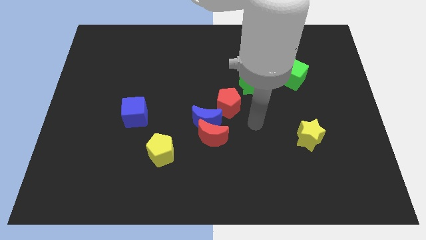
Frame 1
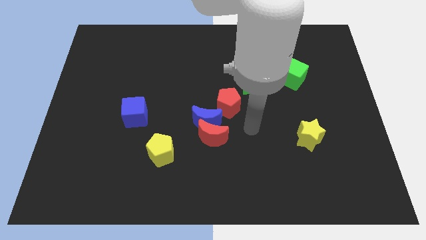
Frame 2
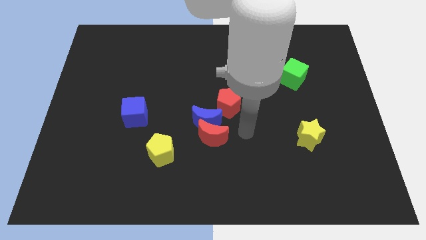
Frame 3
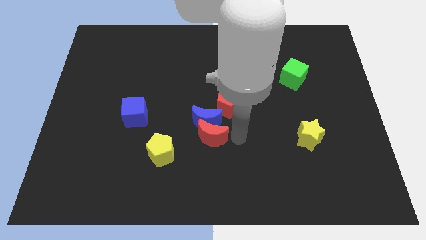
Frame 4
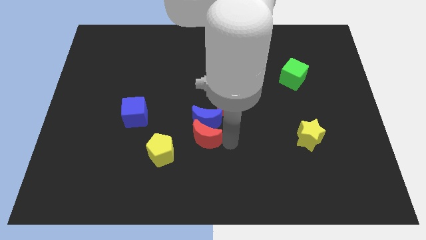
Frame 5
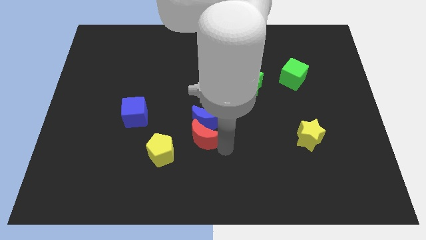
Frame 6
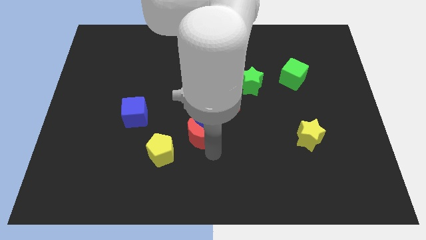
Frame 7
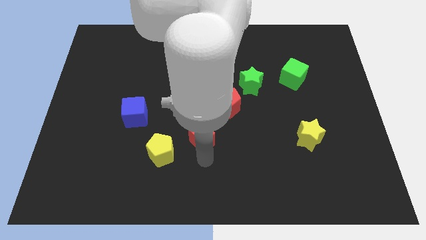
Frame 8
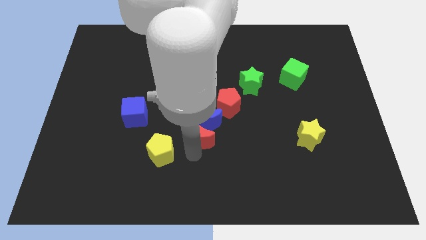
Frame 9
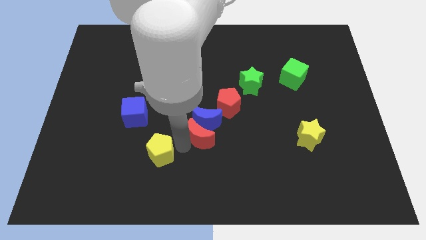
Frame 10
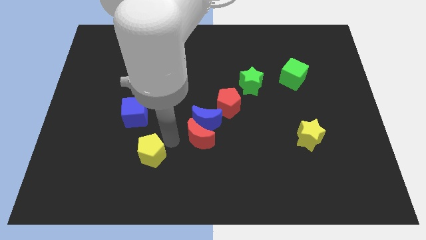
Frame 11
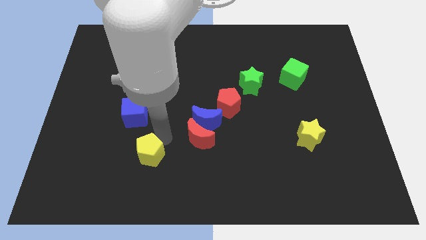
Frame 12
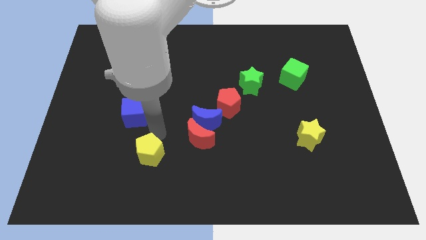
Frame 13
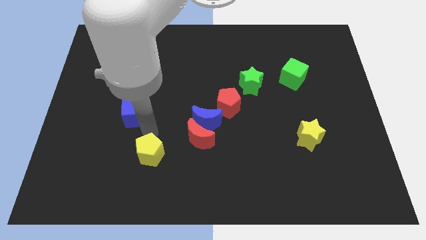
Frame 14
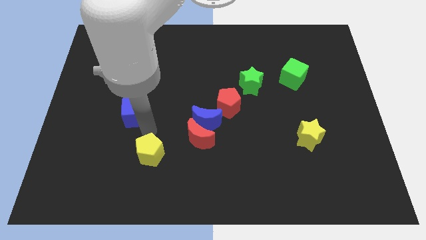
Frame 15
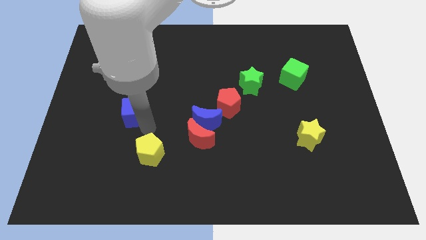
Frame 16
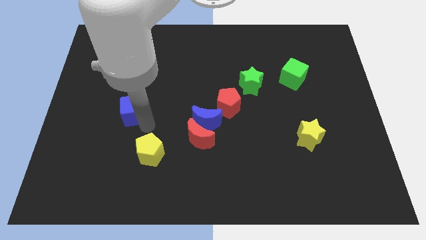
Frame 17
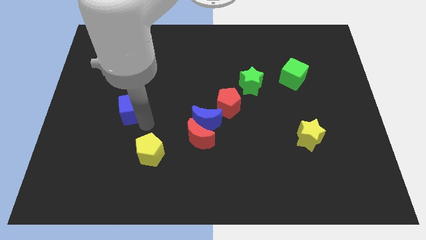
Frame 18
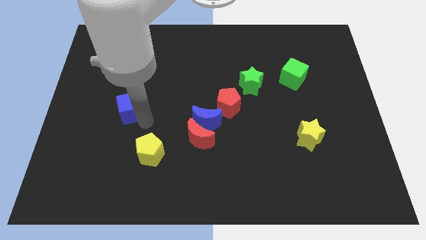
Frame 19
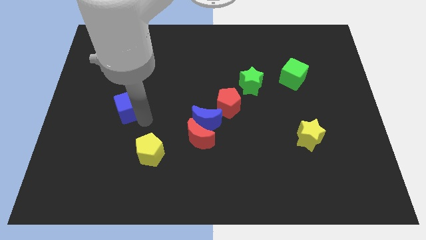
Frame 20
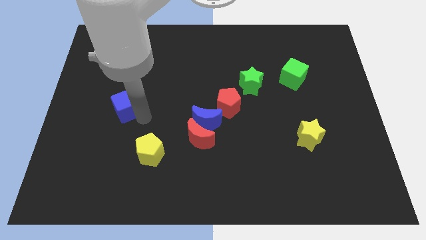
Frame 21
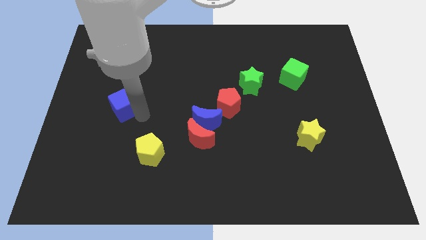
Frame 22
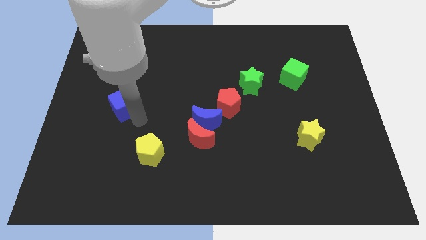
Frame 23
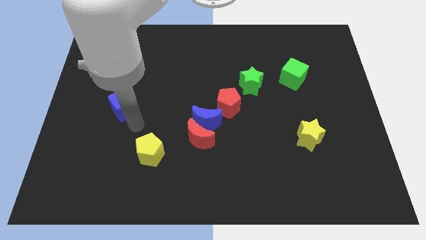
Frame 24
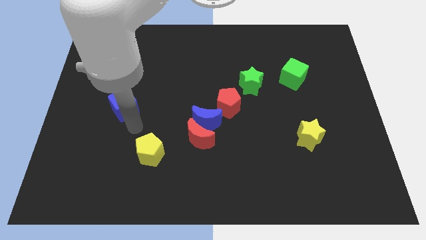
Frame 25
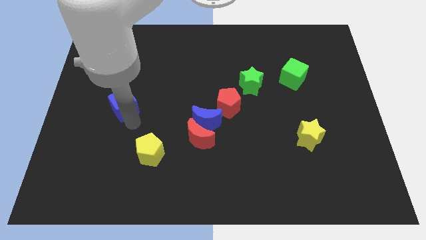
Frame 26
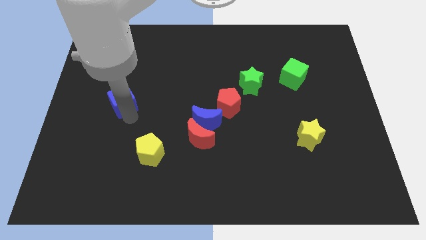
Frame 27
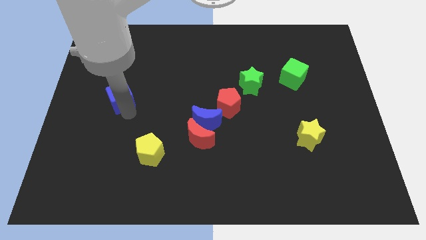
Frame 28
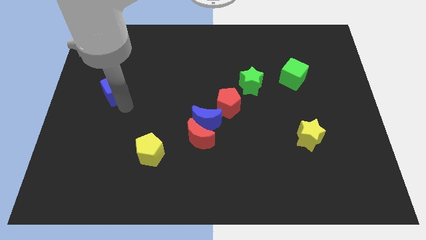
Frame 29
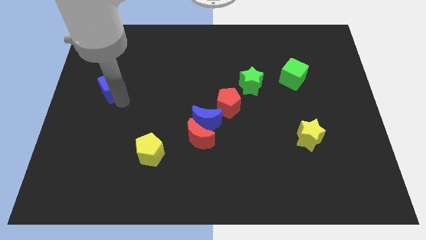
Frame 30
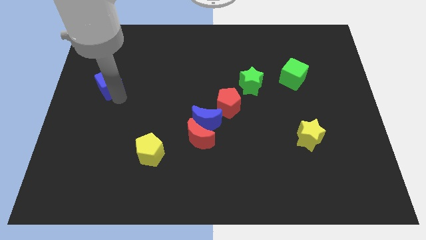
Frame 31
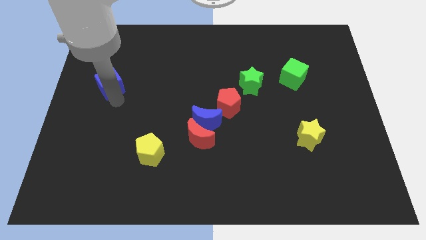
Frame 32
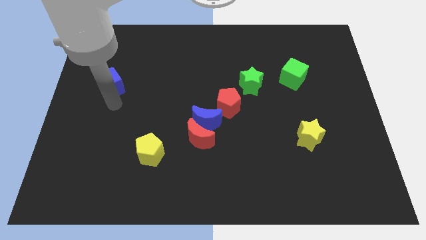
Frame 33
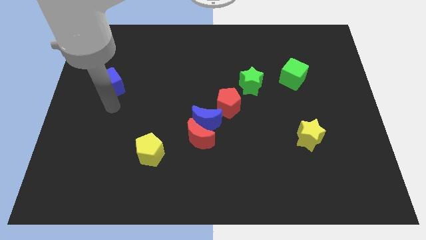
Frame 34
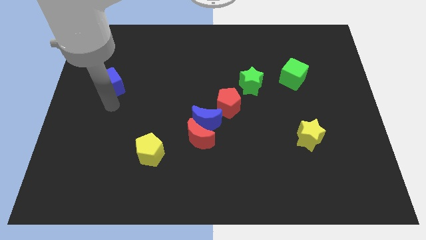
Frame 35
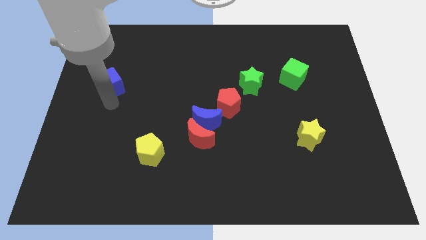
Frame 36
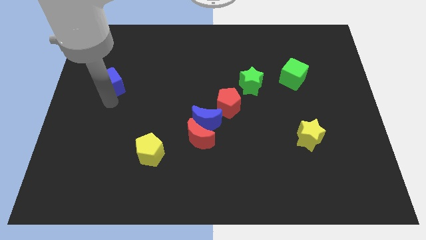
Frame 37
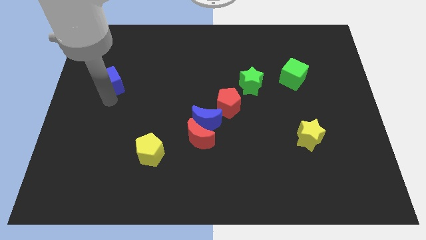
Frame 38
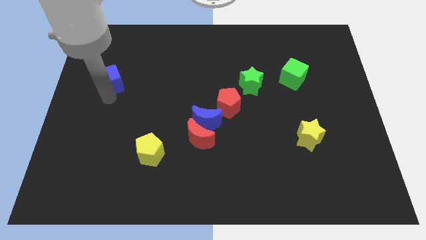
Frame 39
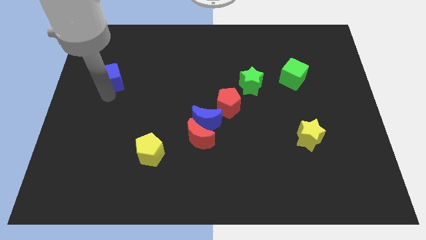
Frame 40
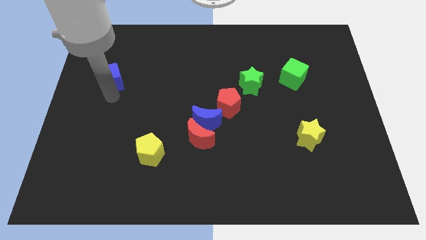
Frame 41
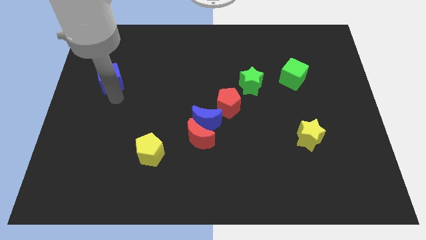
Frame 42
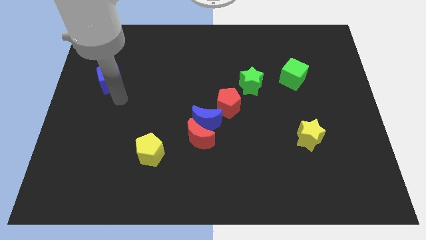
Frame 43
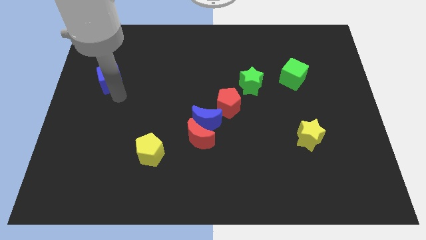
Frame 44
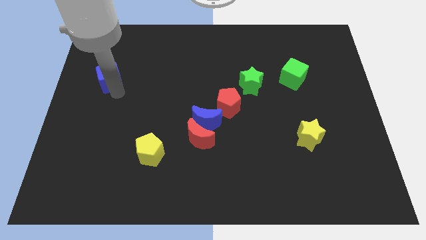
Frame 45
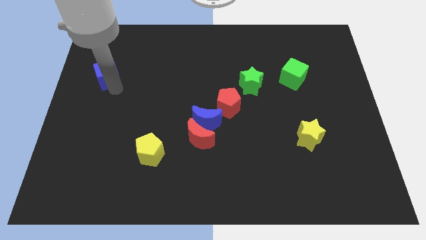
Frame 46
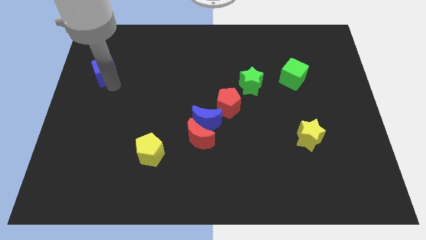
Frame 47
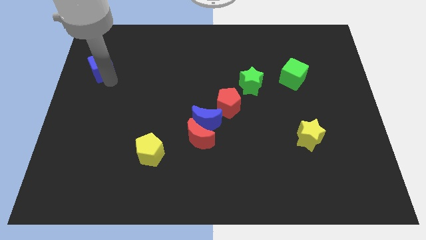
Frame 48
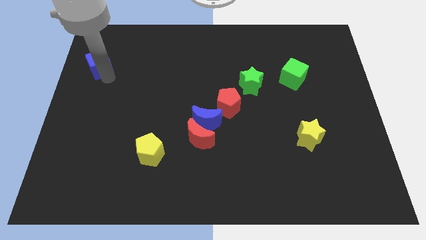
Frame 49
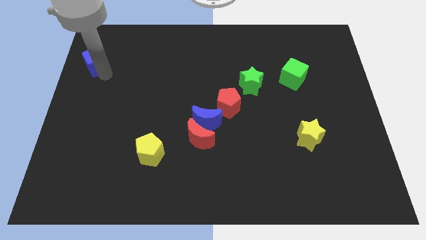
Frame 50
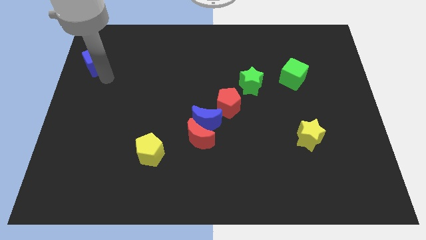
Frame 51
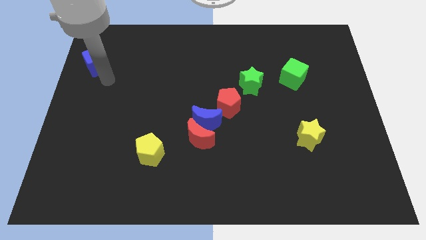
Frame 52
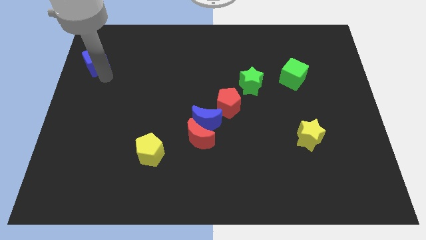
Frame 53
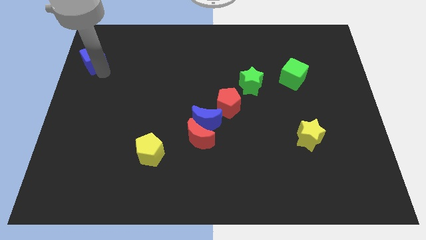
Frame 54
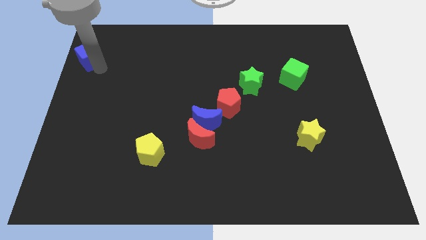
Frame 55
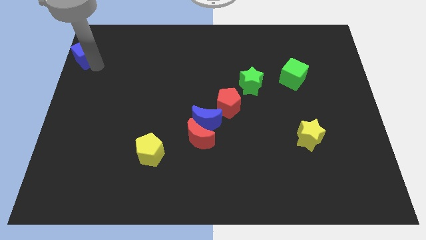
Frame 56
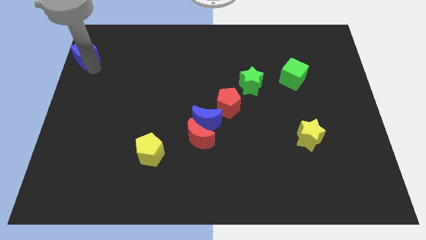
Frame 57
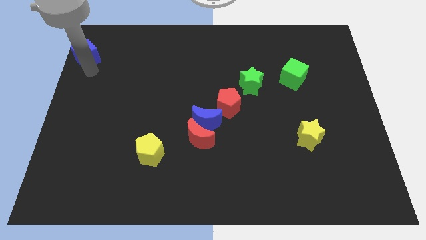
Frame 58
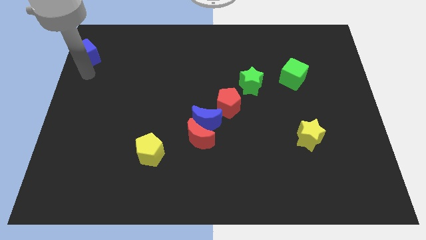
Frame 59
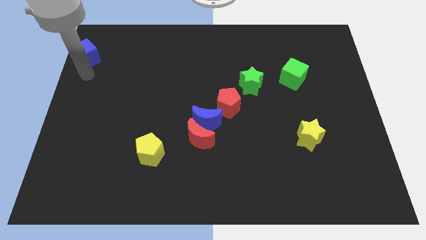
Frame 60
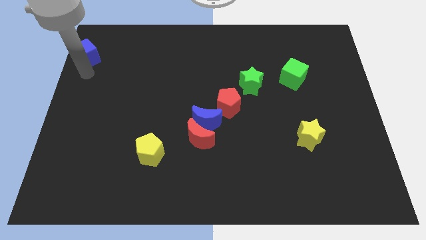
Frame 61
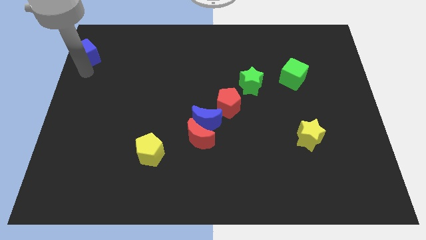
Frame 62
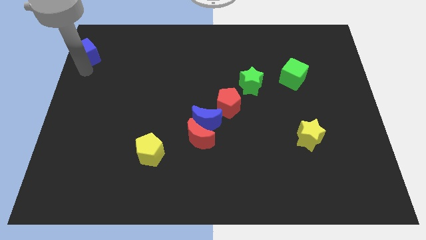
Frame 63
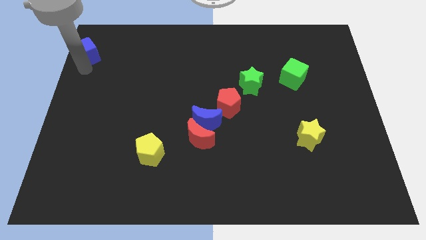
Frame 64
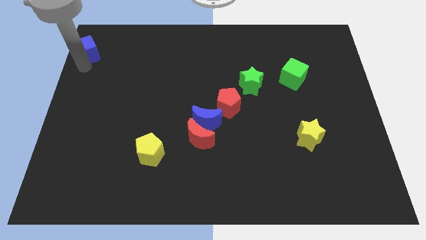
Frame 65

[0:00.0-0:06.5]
put the blue cube to the top left

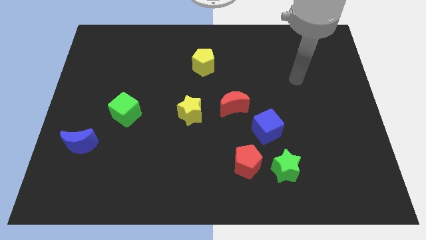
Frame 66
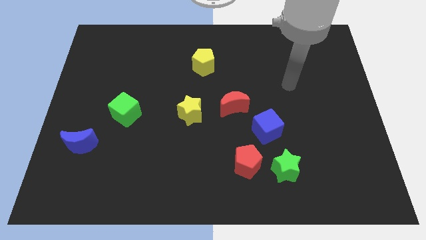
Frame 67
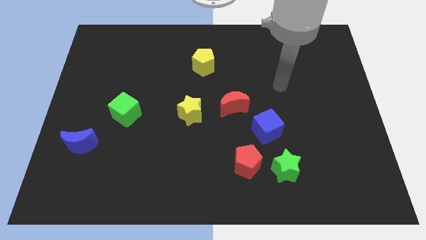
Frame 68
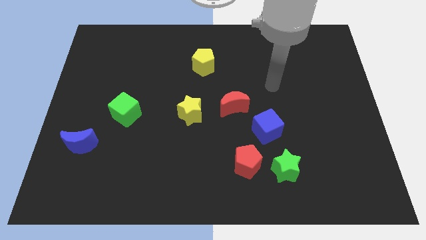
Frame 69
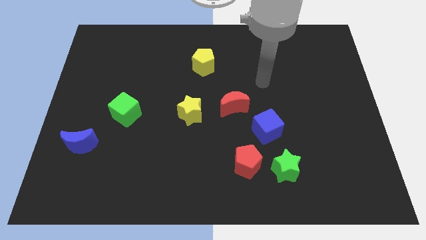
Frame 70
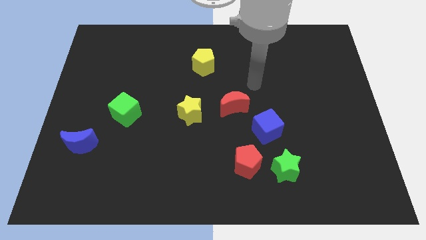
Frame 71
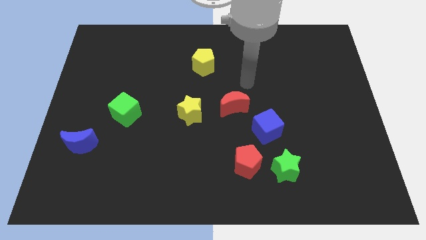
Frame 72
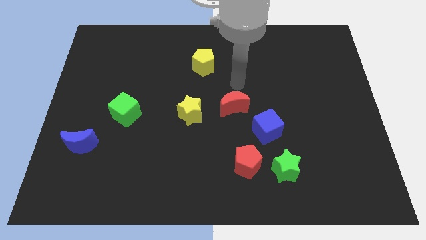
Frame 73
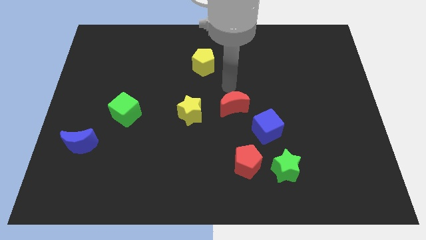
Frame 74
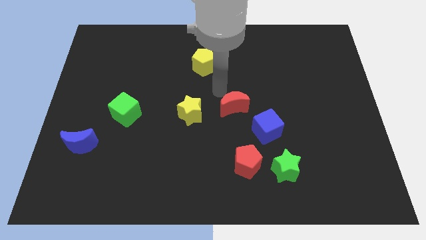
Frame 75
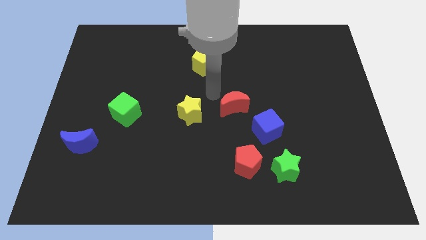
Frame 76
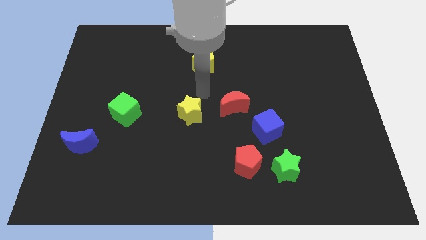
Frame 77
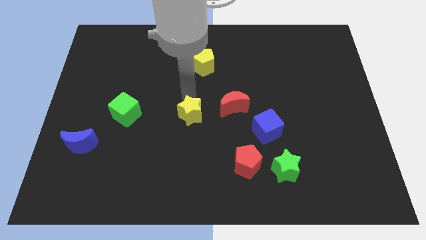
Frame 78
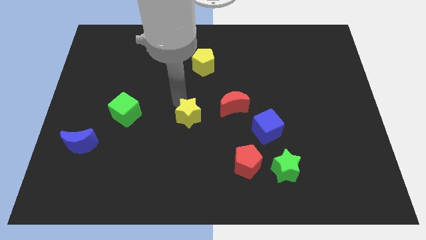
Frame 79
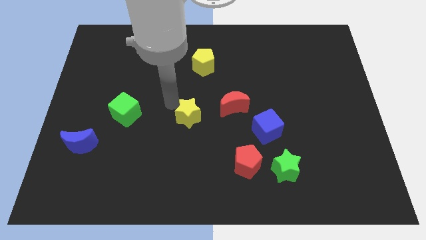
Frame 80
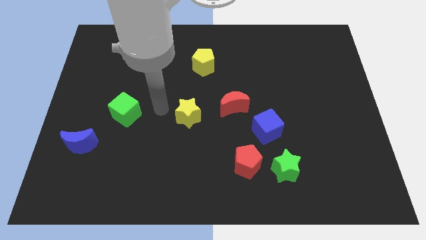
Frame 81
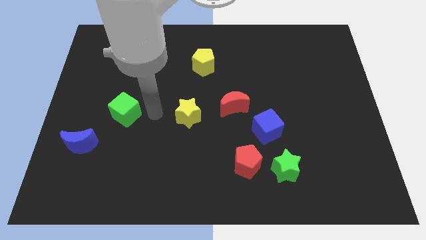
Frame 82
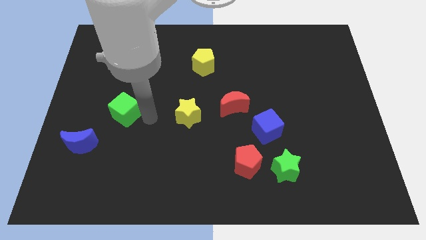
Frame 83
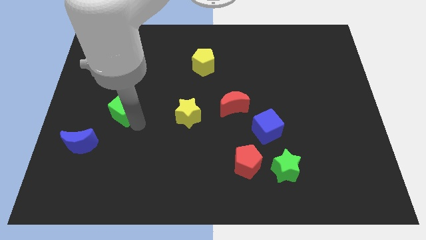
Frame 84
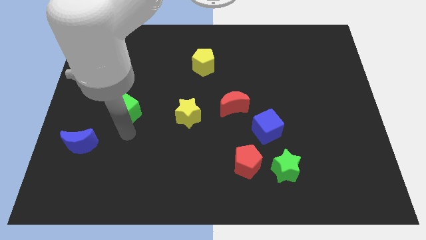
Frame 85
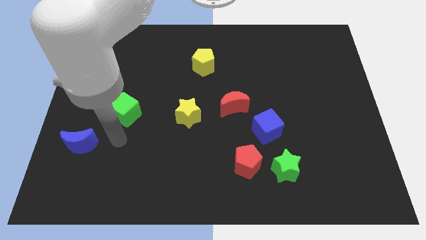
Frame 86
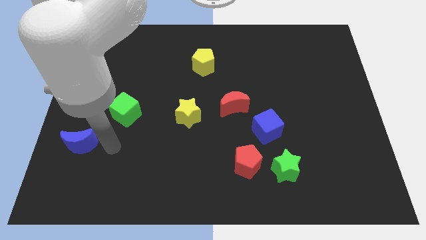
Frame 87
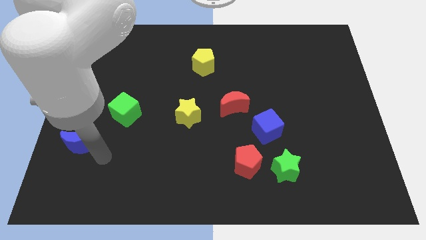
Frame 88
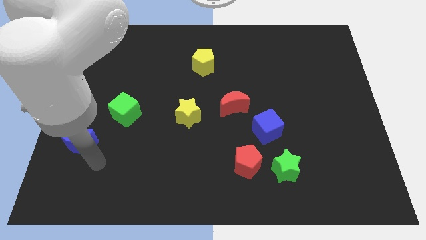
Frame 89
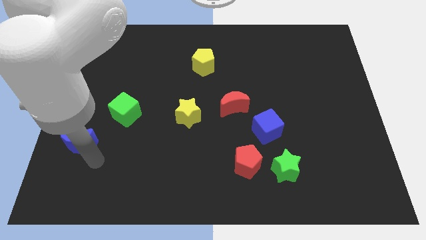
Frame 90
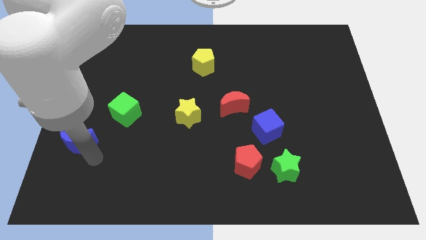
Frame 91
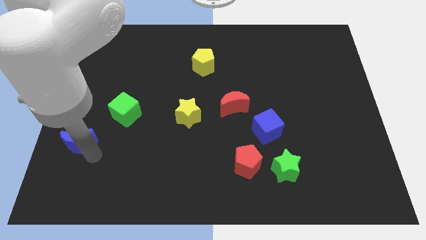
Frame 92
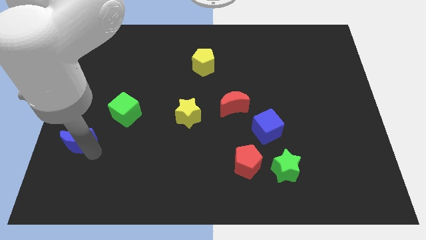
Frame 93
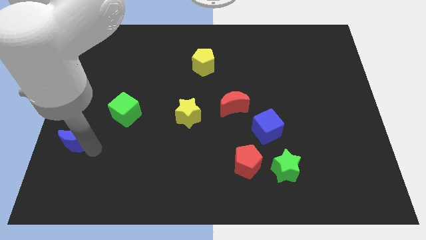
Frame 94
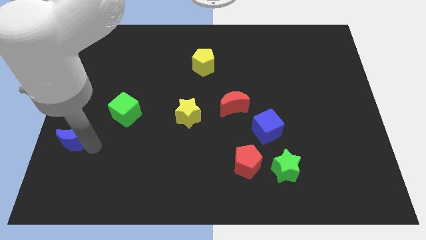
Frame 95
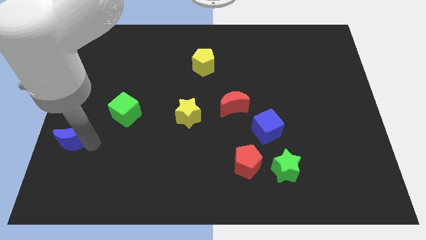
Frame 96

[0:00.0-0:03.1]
put the blue moon to the center left
